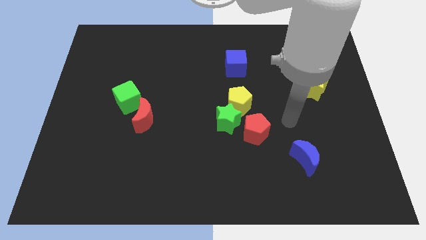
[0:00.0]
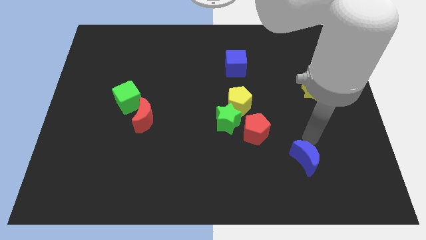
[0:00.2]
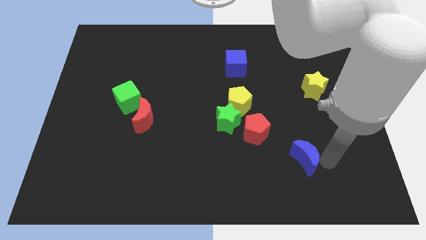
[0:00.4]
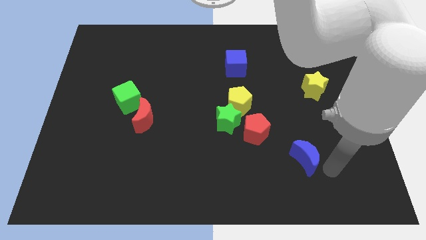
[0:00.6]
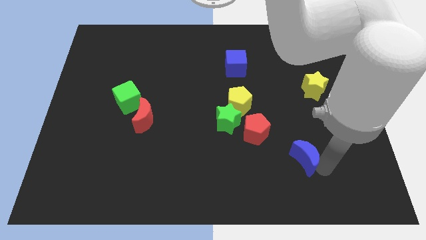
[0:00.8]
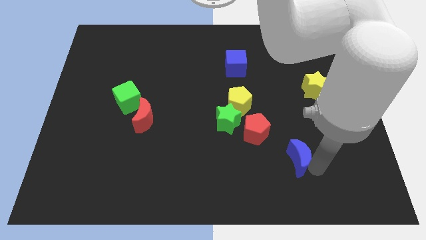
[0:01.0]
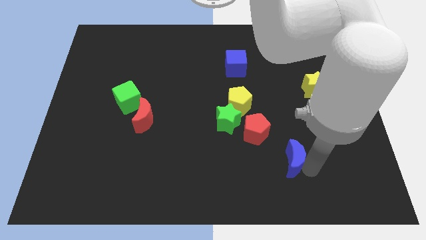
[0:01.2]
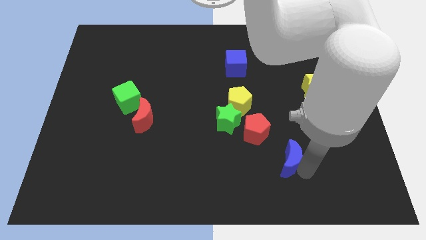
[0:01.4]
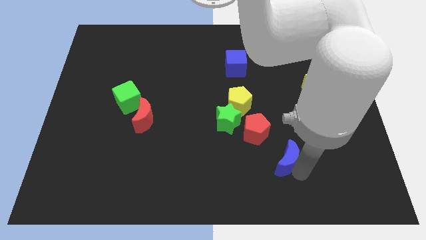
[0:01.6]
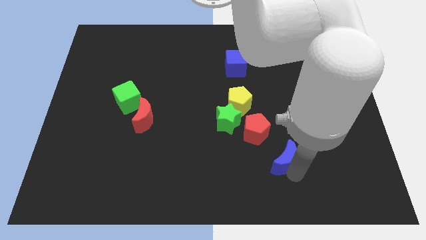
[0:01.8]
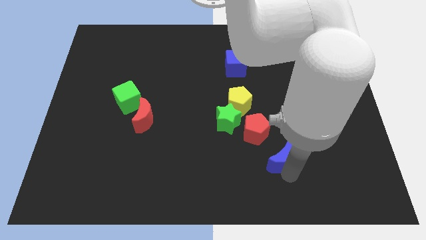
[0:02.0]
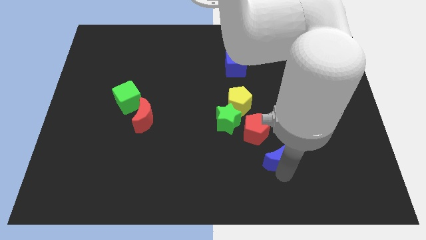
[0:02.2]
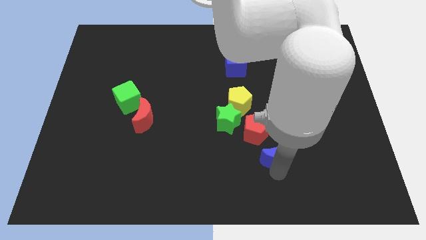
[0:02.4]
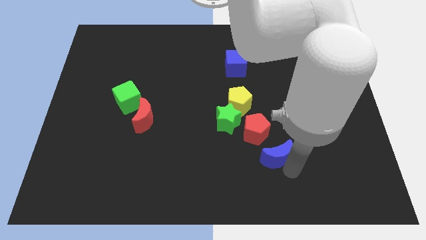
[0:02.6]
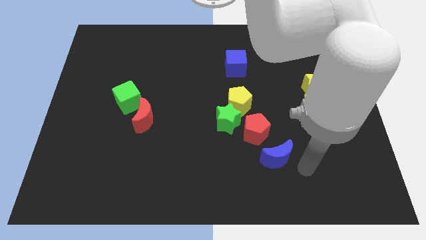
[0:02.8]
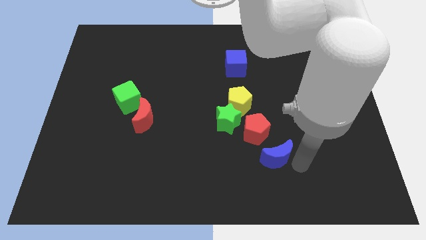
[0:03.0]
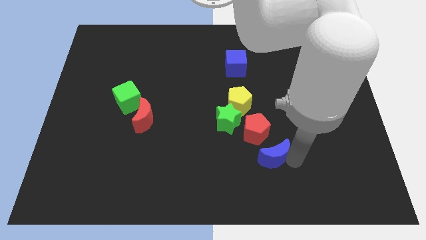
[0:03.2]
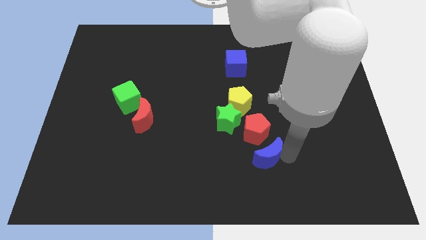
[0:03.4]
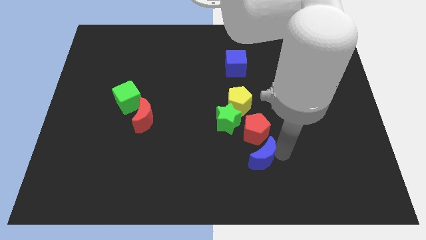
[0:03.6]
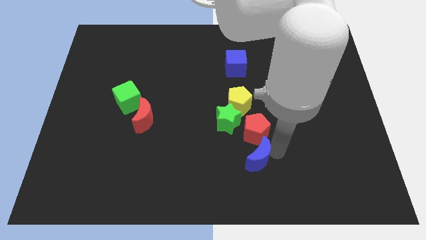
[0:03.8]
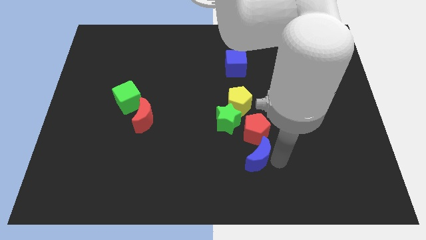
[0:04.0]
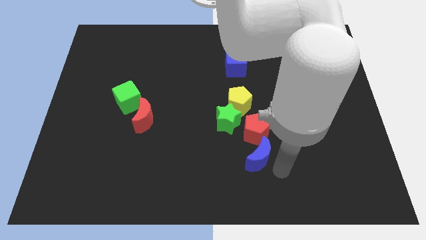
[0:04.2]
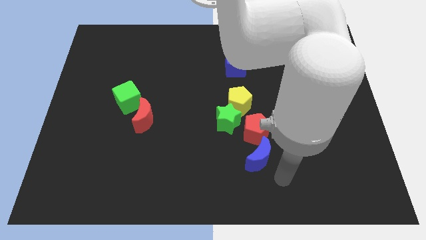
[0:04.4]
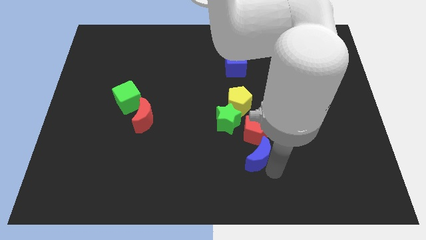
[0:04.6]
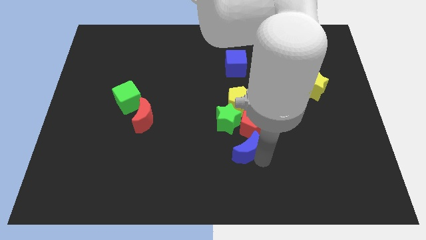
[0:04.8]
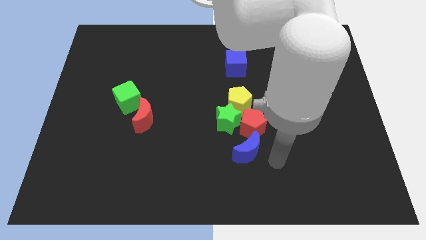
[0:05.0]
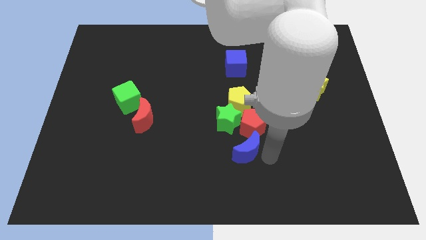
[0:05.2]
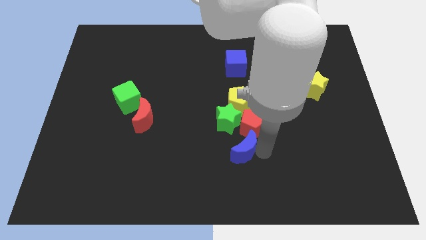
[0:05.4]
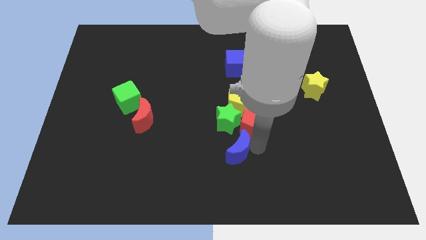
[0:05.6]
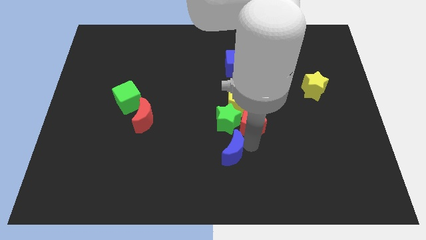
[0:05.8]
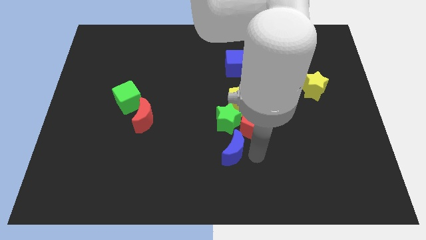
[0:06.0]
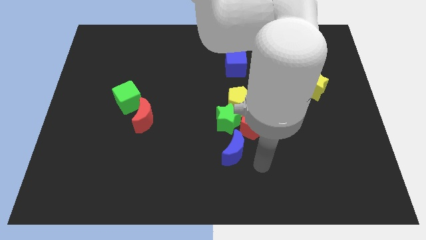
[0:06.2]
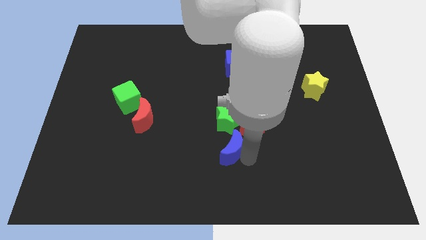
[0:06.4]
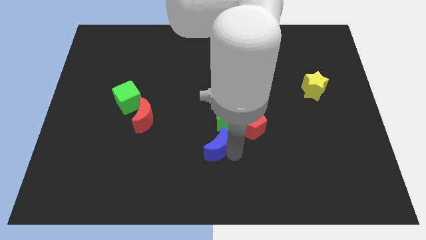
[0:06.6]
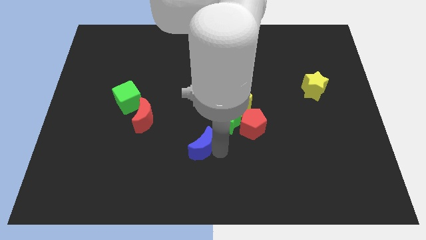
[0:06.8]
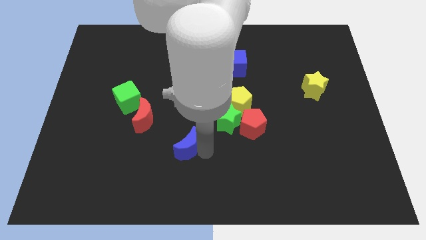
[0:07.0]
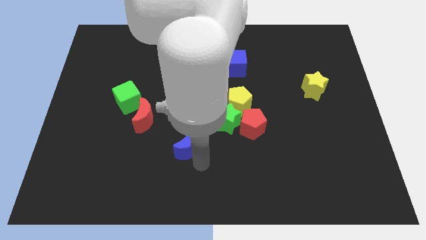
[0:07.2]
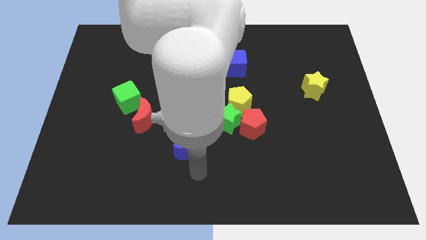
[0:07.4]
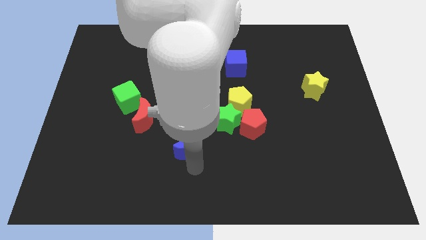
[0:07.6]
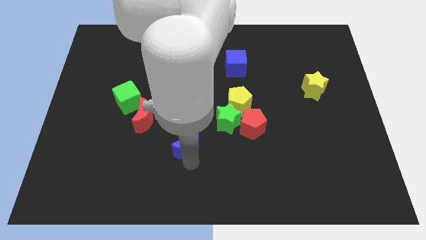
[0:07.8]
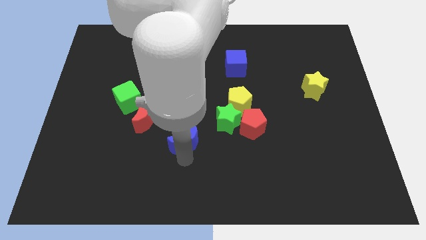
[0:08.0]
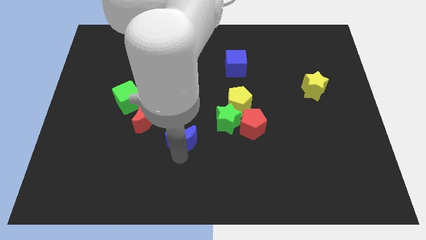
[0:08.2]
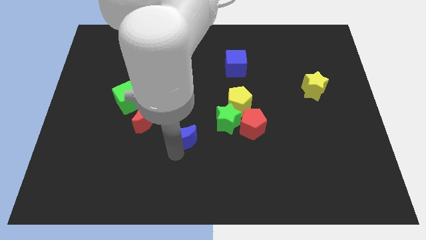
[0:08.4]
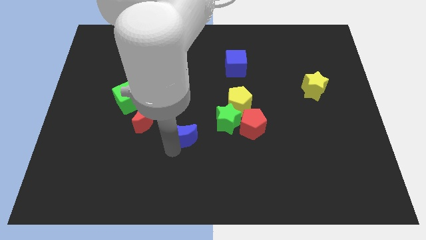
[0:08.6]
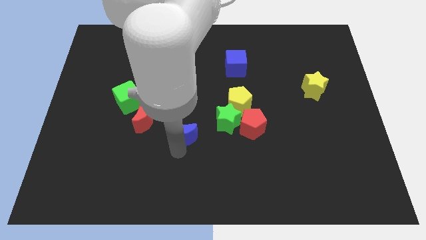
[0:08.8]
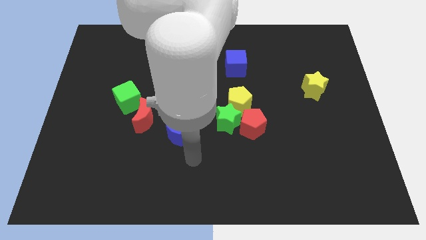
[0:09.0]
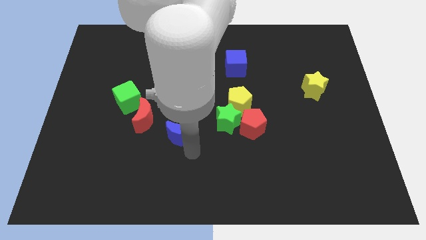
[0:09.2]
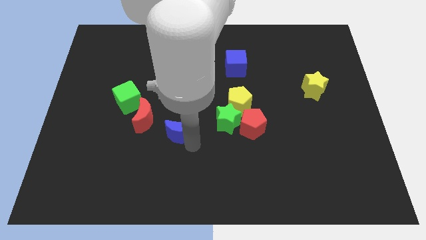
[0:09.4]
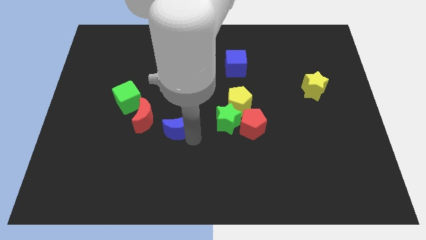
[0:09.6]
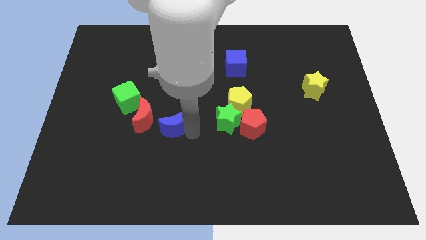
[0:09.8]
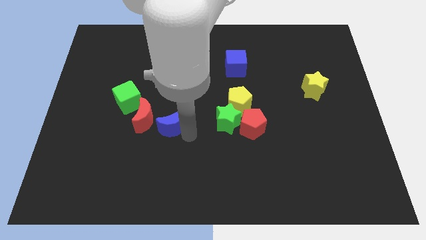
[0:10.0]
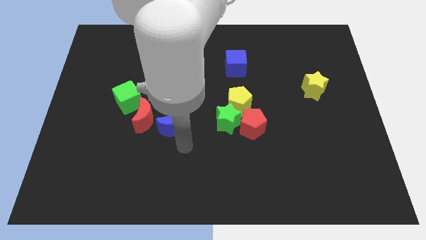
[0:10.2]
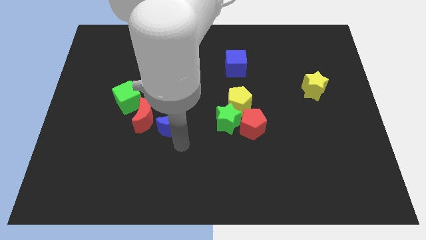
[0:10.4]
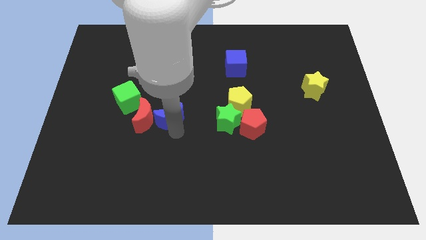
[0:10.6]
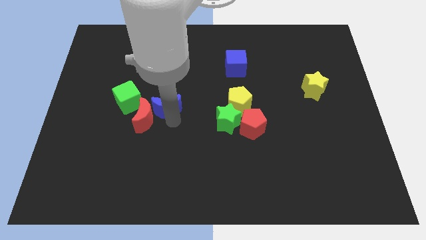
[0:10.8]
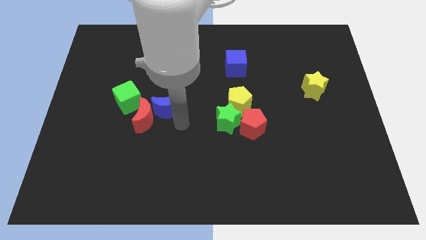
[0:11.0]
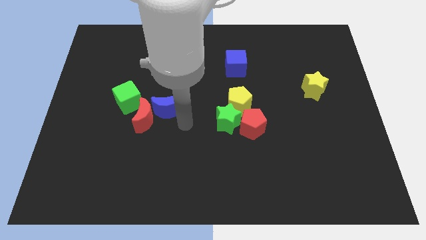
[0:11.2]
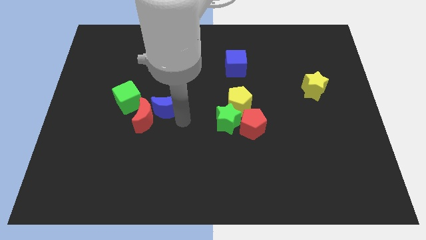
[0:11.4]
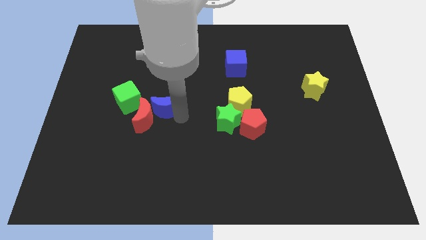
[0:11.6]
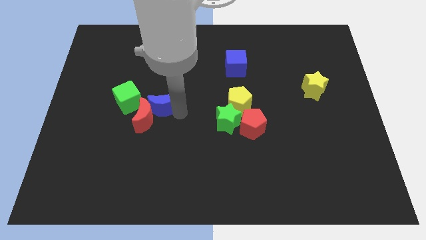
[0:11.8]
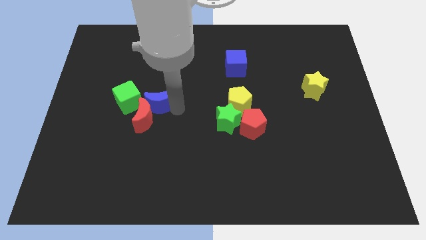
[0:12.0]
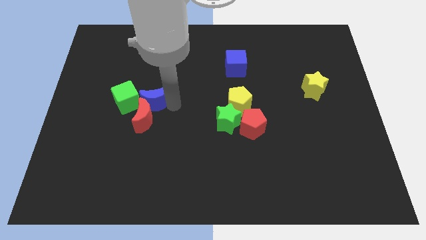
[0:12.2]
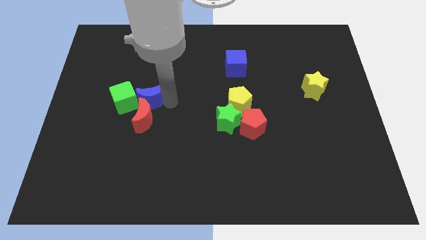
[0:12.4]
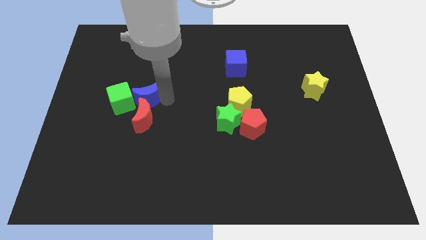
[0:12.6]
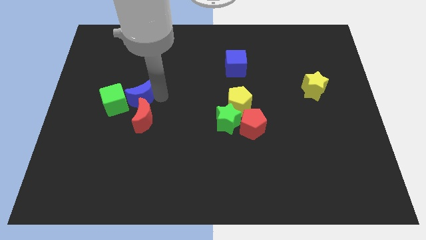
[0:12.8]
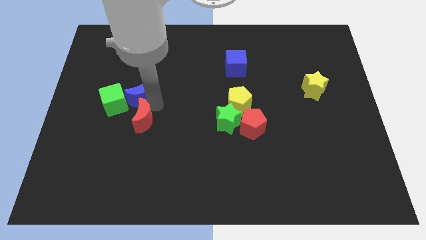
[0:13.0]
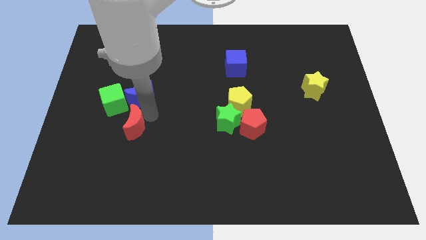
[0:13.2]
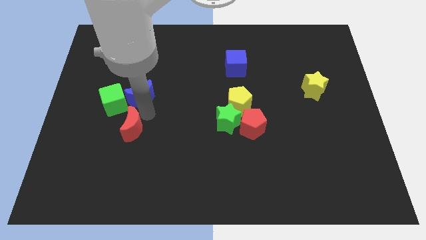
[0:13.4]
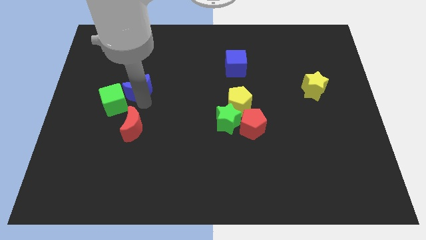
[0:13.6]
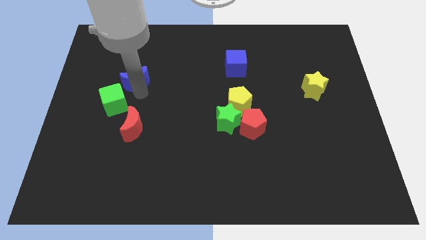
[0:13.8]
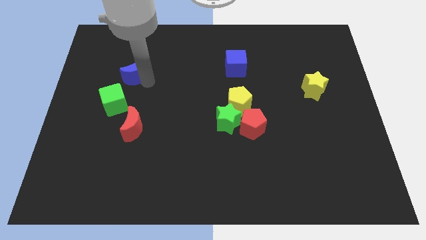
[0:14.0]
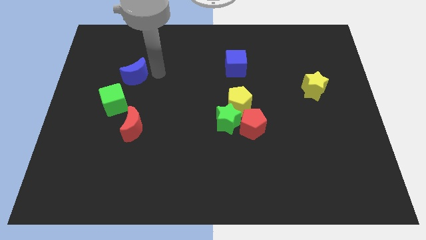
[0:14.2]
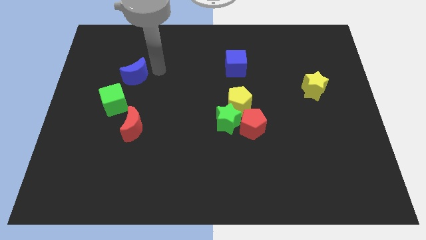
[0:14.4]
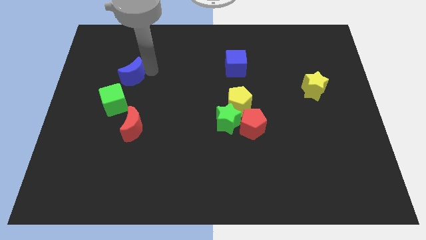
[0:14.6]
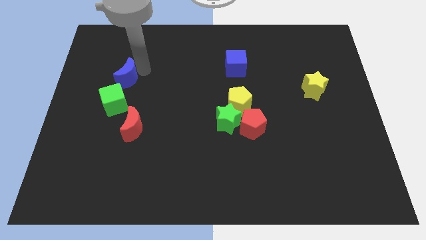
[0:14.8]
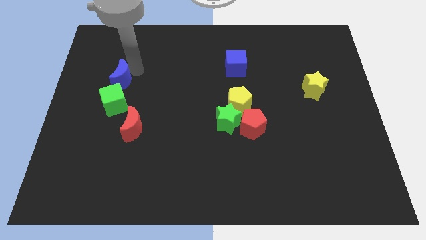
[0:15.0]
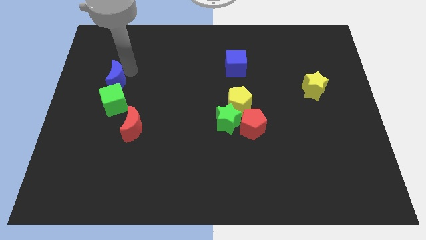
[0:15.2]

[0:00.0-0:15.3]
move the blue moon to the top left of the green cube

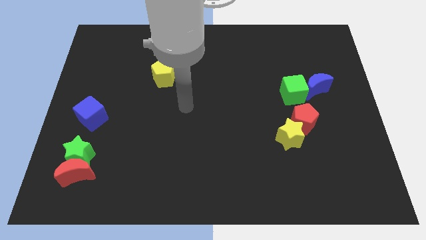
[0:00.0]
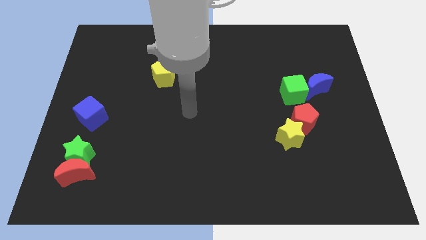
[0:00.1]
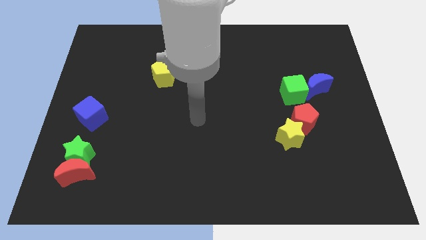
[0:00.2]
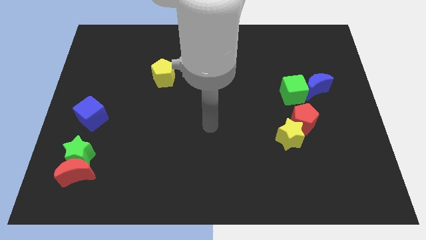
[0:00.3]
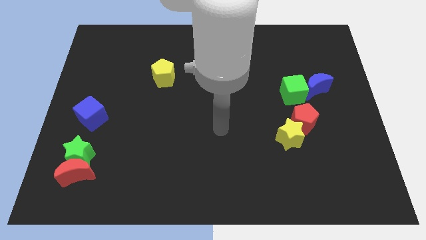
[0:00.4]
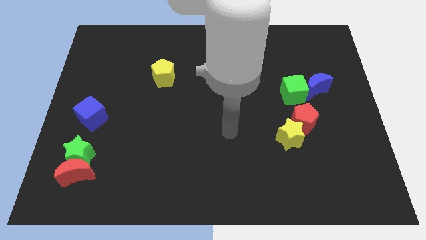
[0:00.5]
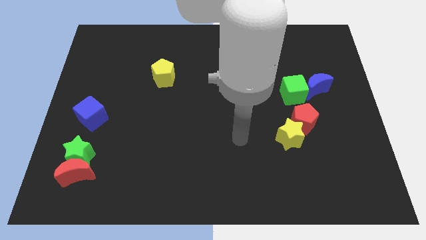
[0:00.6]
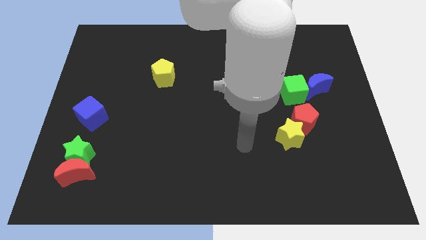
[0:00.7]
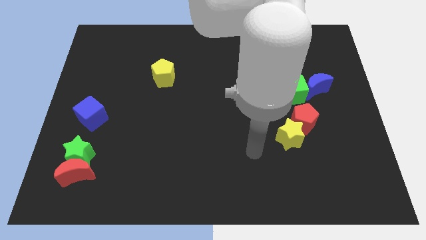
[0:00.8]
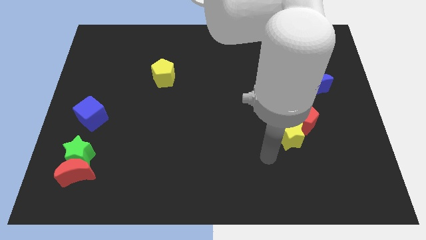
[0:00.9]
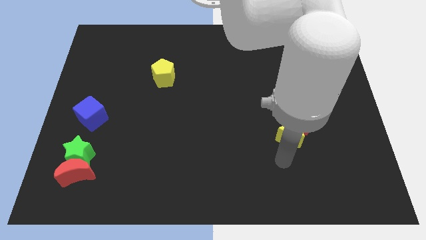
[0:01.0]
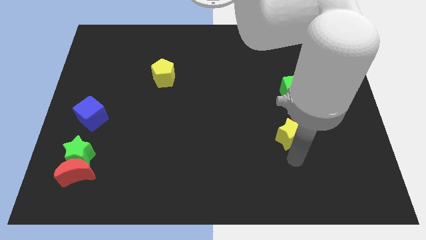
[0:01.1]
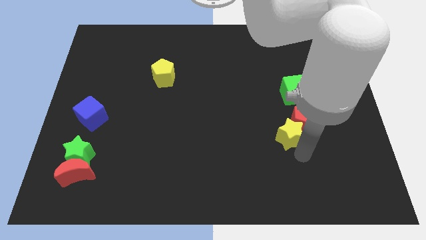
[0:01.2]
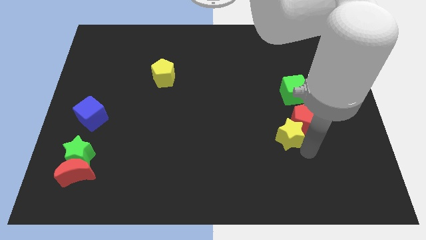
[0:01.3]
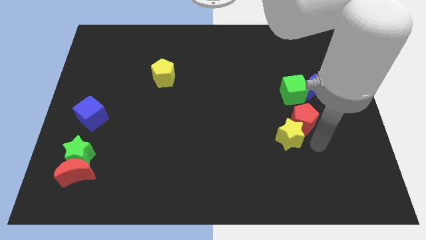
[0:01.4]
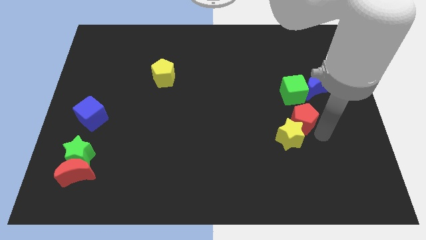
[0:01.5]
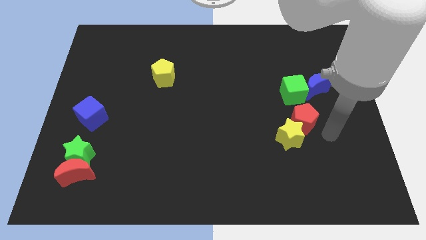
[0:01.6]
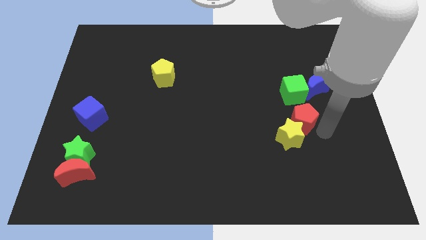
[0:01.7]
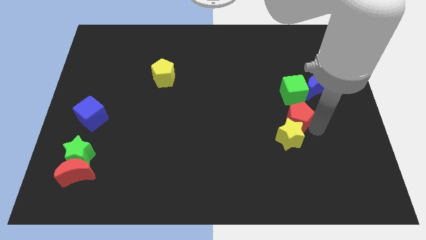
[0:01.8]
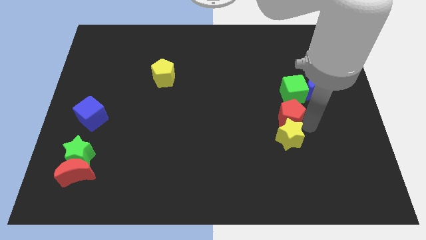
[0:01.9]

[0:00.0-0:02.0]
push the red pentagon to the bottom left side of the green cube
